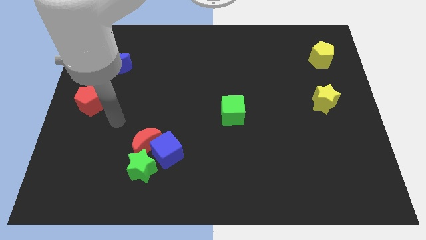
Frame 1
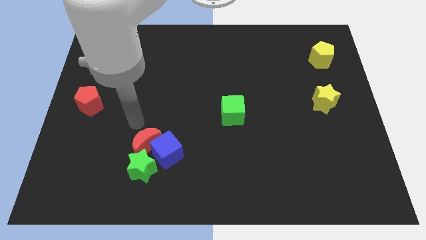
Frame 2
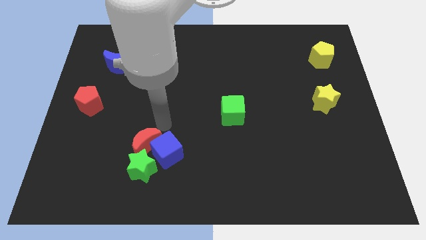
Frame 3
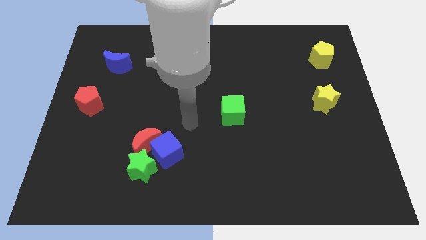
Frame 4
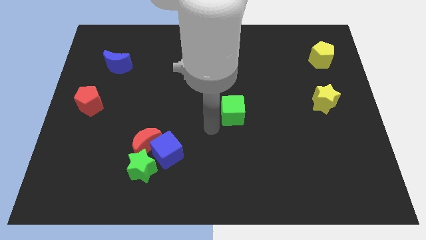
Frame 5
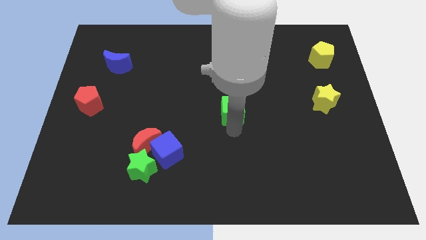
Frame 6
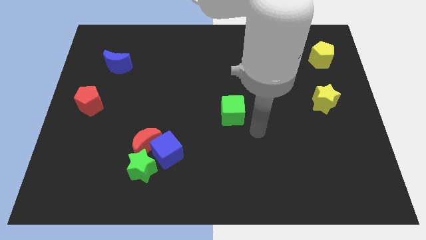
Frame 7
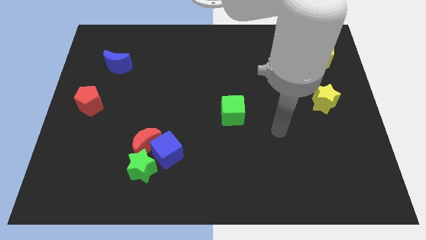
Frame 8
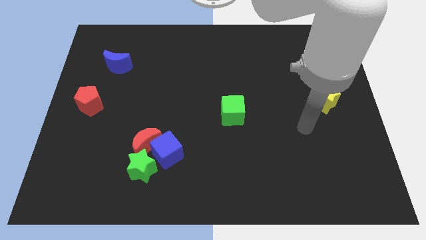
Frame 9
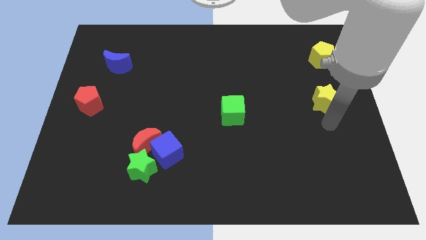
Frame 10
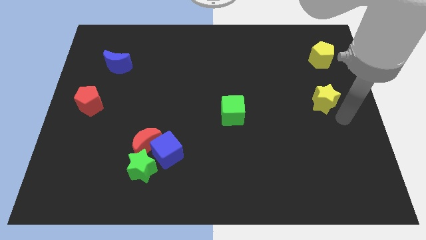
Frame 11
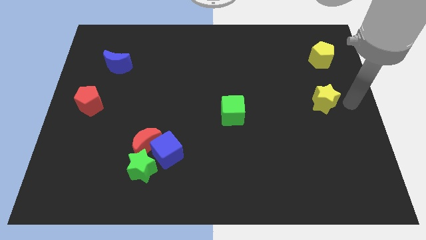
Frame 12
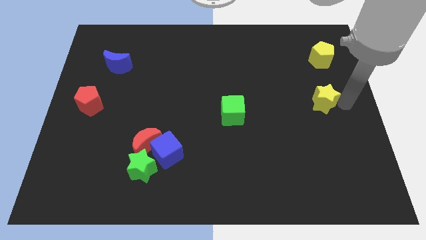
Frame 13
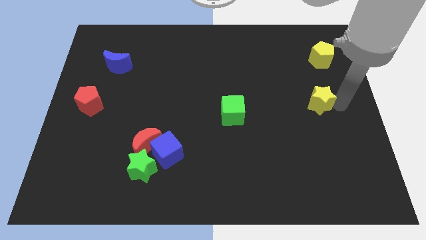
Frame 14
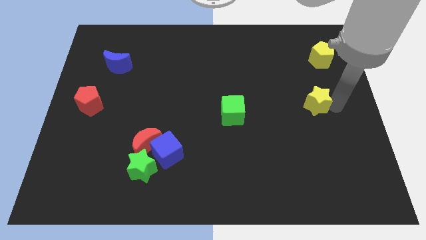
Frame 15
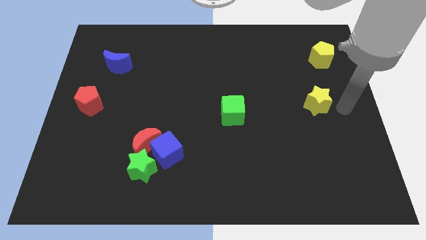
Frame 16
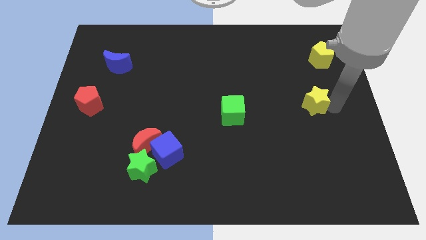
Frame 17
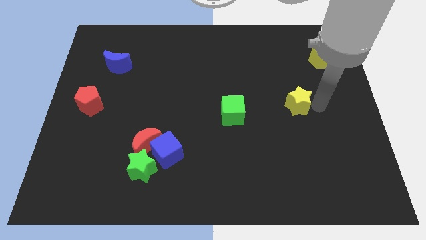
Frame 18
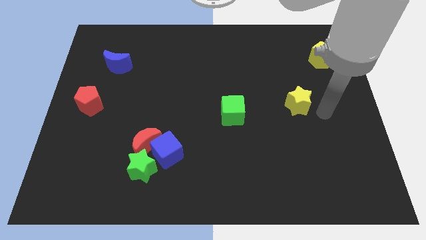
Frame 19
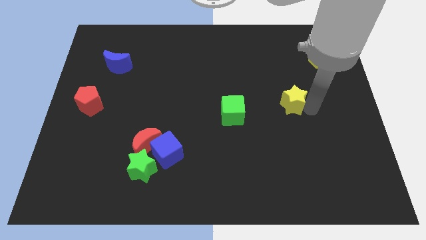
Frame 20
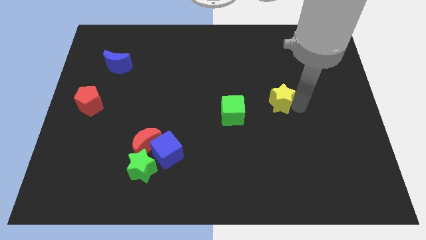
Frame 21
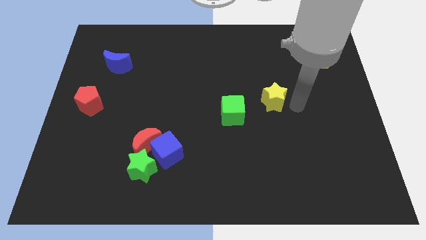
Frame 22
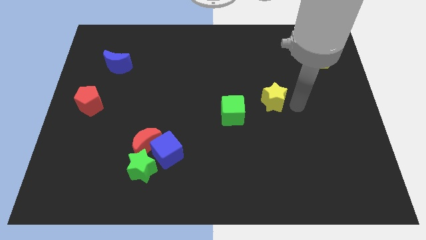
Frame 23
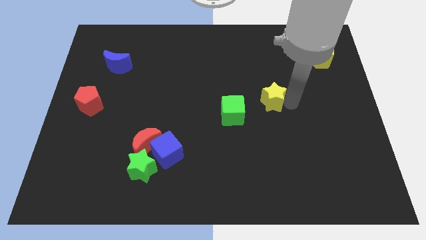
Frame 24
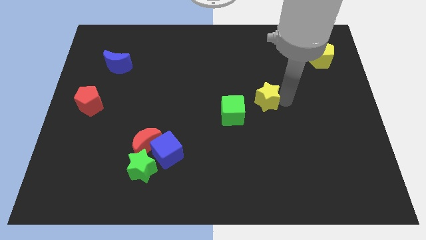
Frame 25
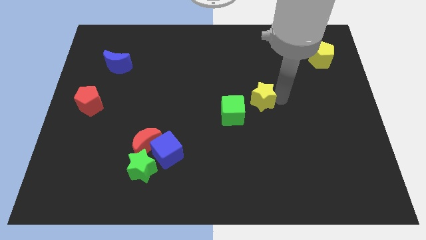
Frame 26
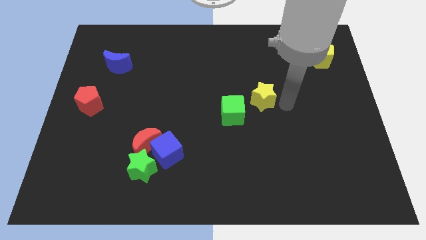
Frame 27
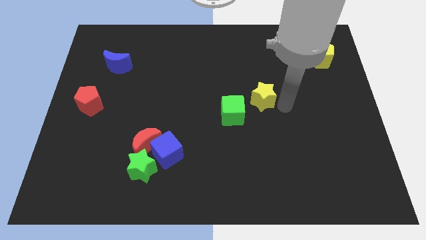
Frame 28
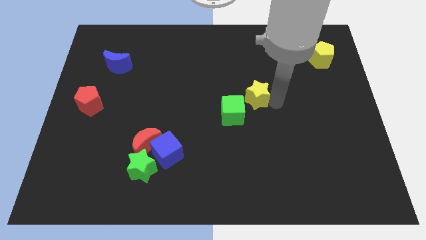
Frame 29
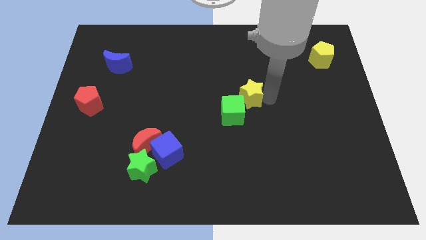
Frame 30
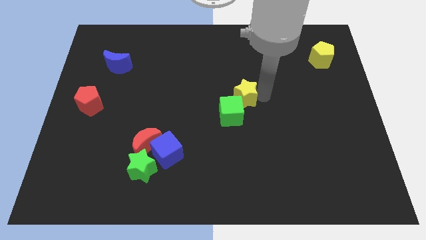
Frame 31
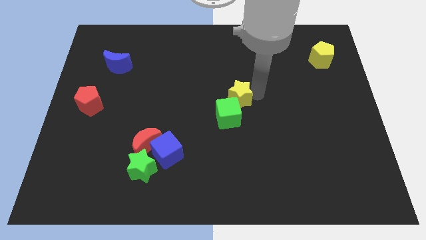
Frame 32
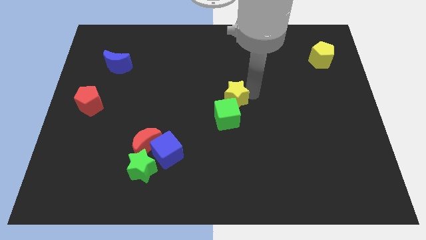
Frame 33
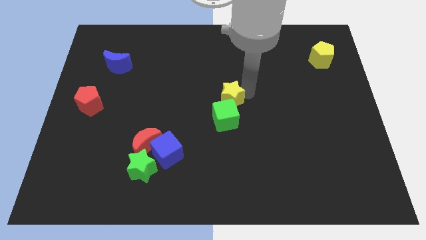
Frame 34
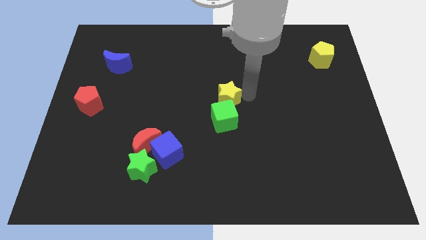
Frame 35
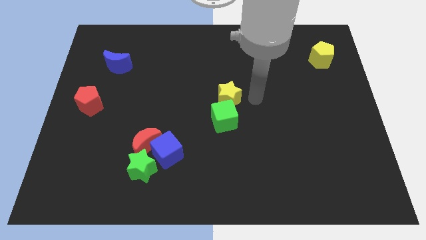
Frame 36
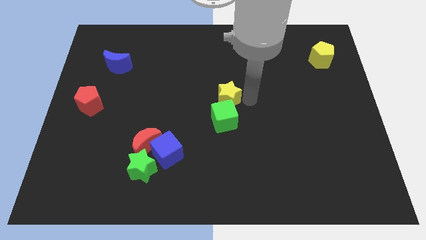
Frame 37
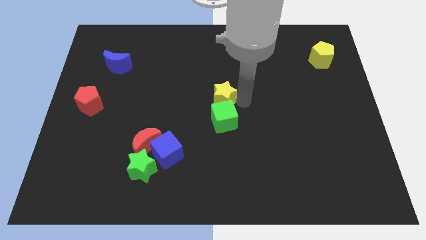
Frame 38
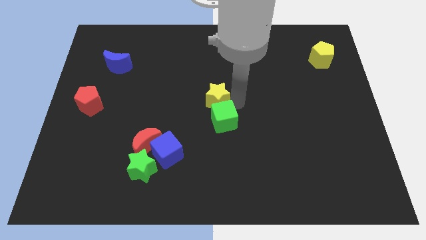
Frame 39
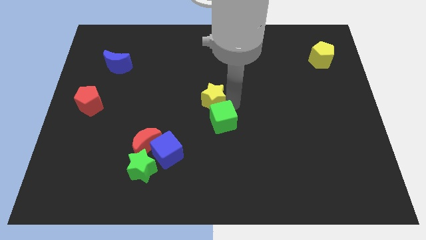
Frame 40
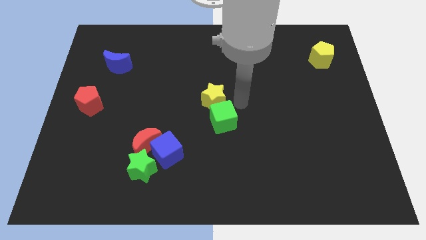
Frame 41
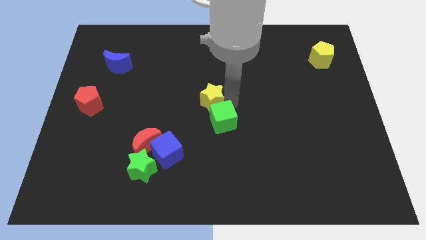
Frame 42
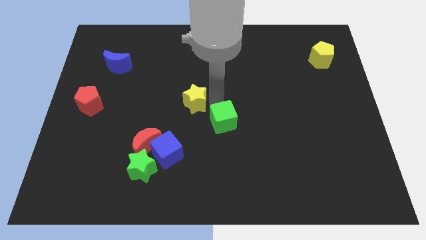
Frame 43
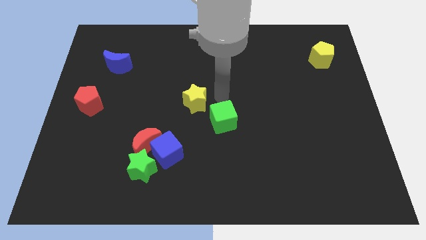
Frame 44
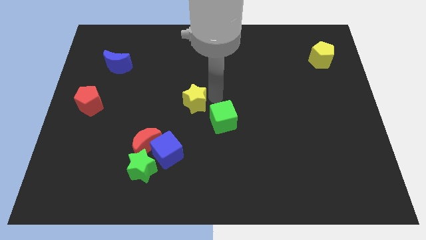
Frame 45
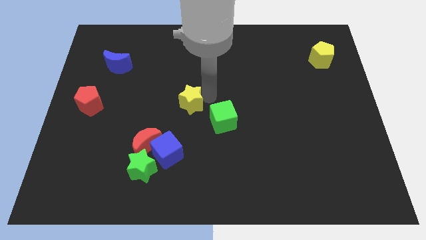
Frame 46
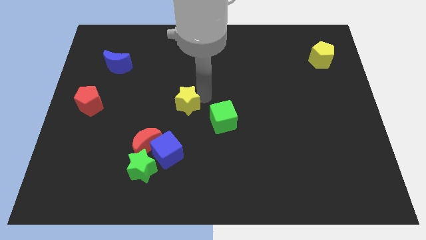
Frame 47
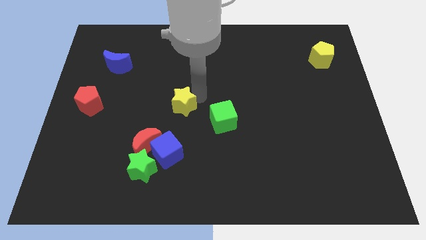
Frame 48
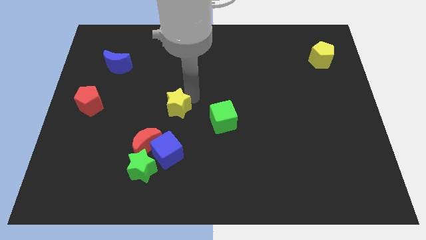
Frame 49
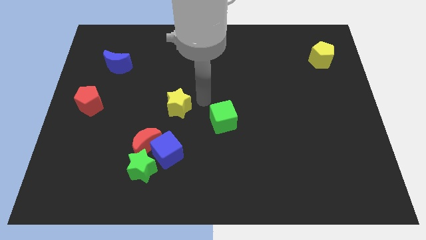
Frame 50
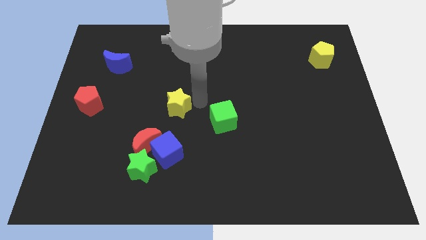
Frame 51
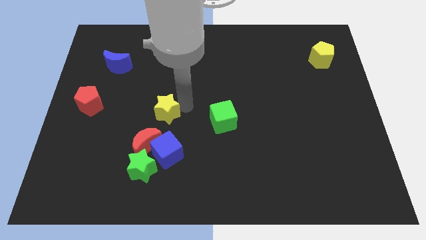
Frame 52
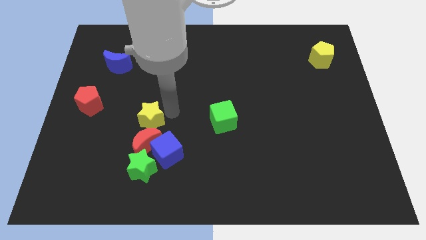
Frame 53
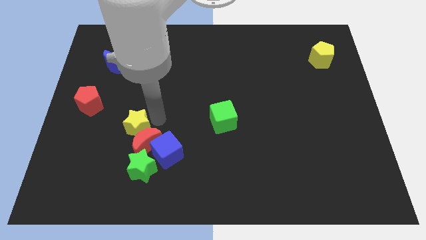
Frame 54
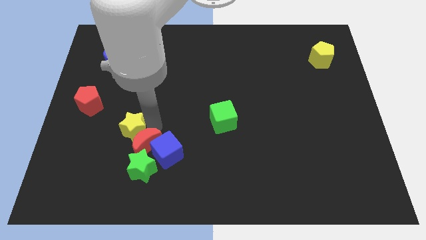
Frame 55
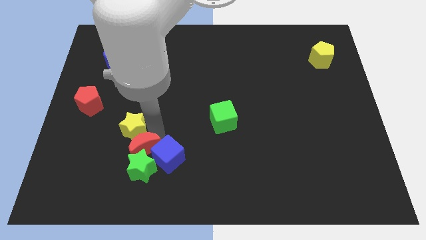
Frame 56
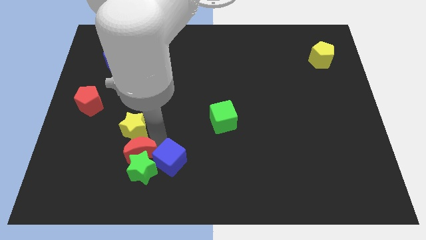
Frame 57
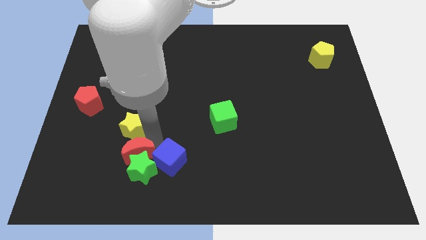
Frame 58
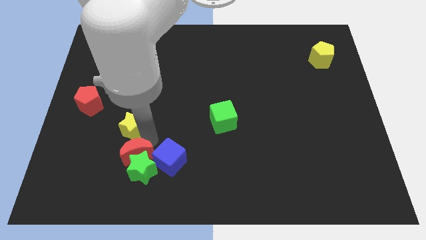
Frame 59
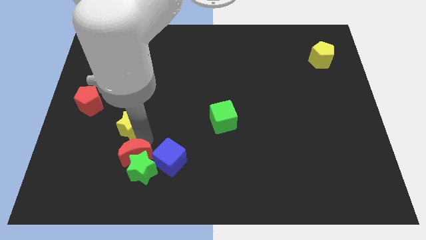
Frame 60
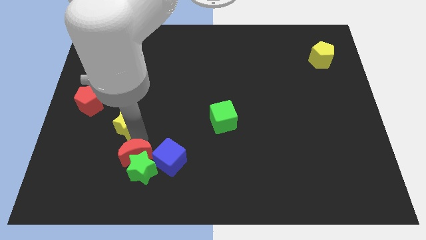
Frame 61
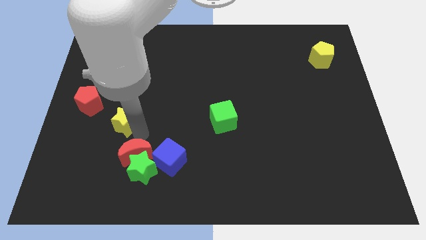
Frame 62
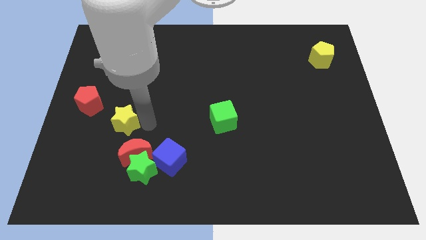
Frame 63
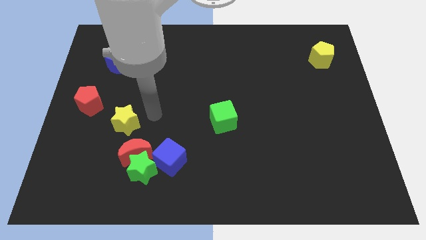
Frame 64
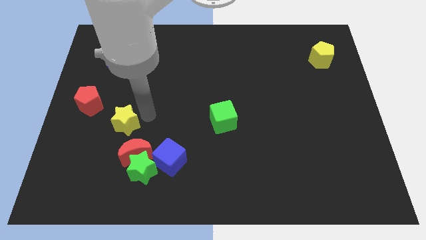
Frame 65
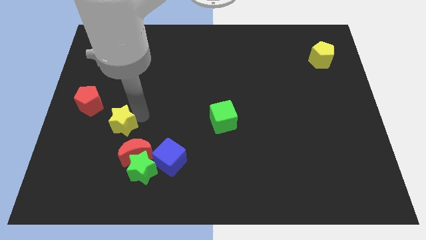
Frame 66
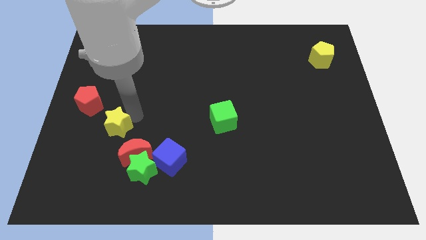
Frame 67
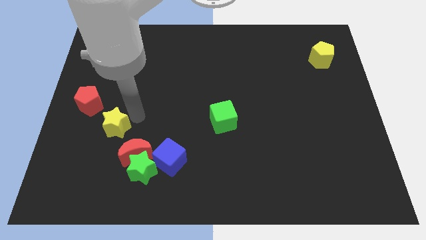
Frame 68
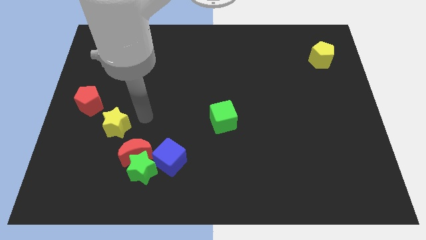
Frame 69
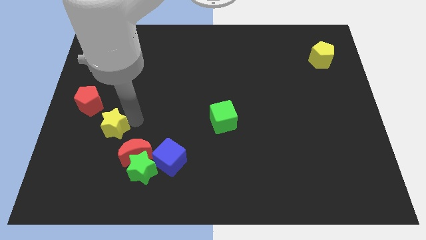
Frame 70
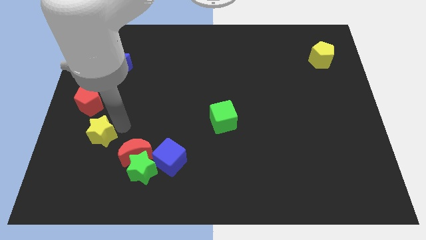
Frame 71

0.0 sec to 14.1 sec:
push the yellow star to the bottom side of the red pentagon
